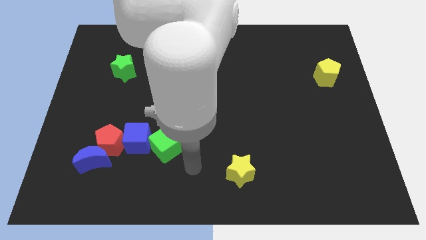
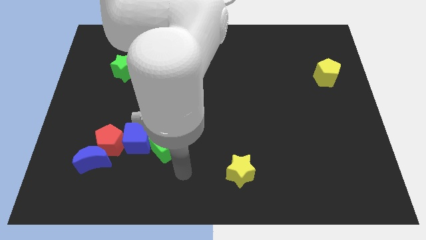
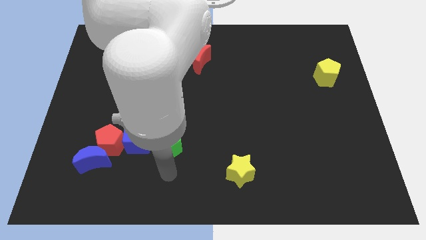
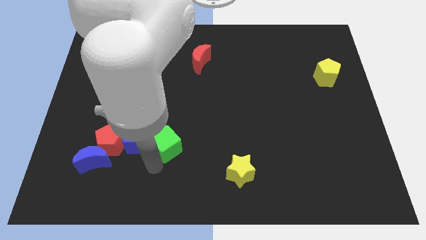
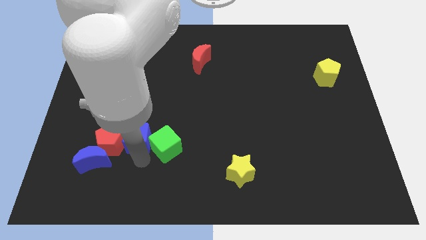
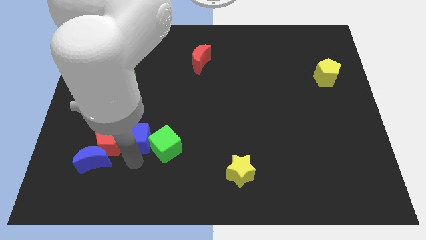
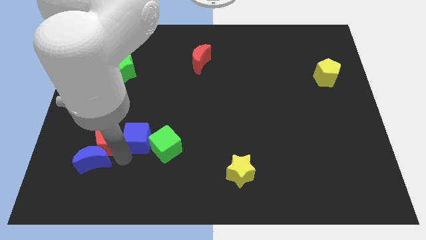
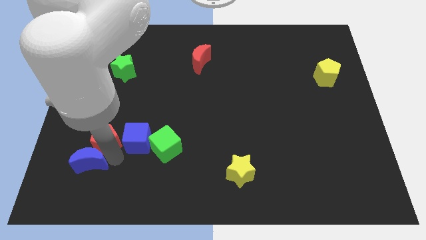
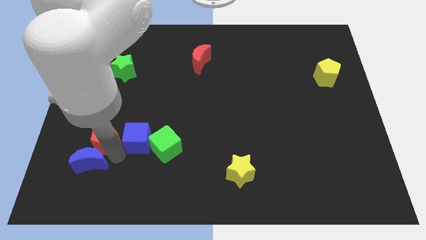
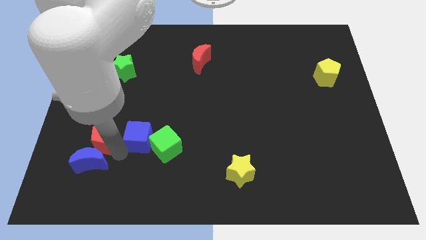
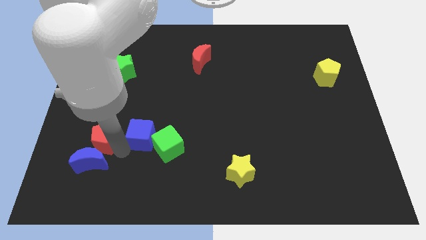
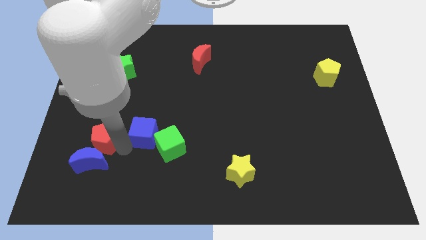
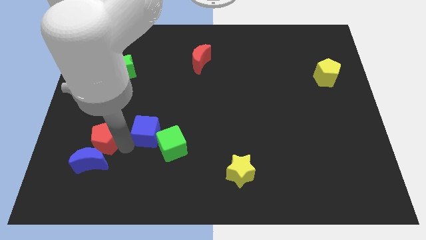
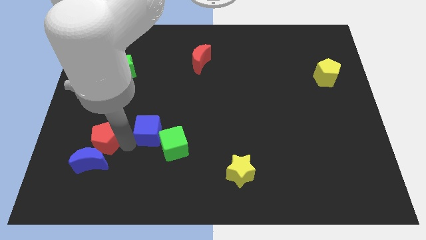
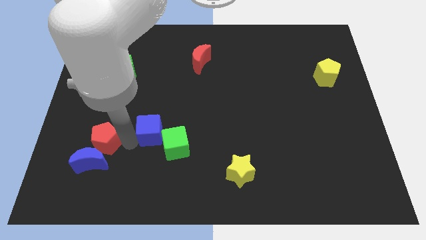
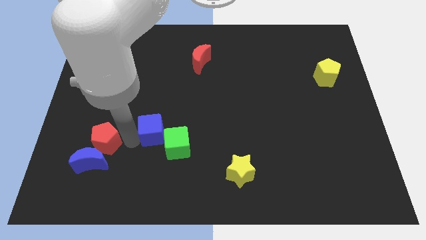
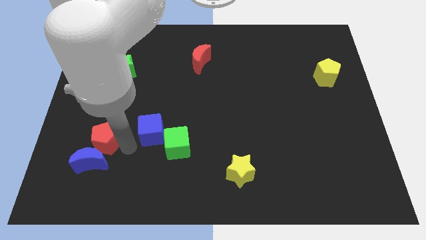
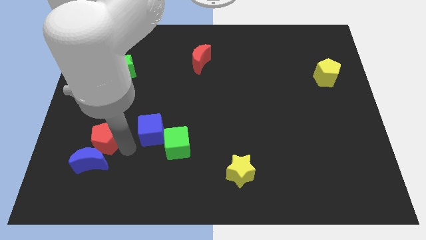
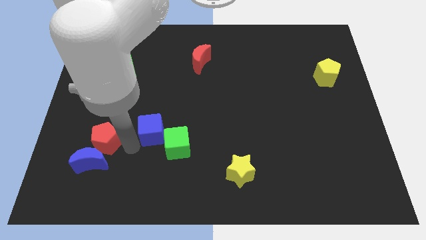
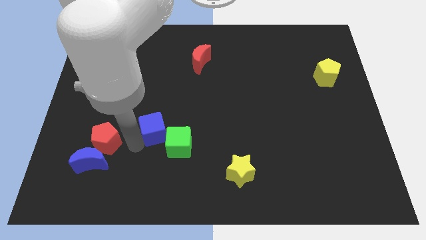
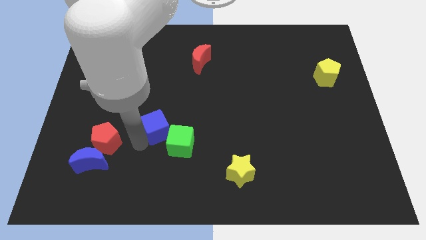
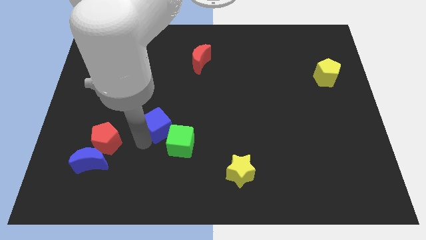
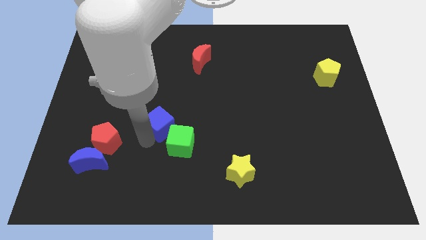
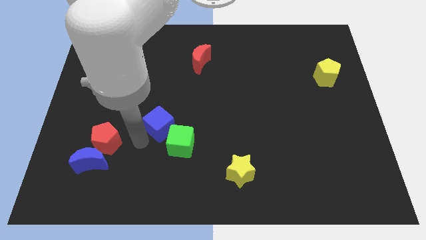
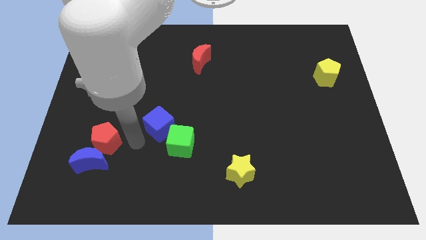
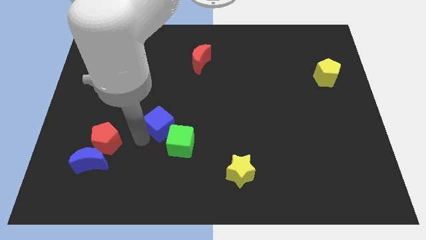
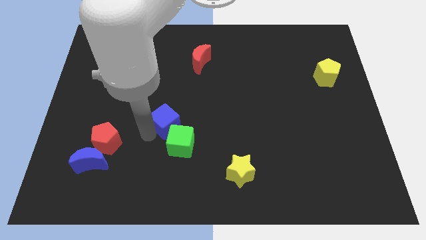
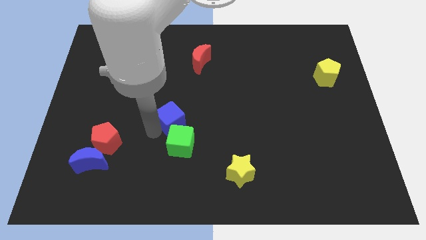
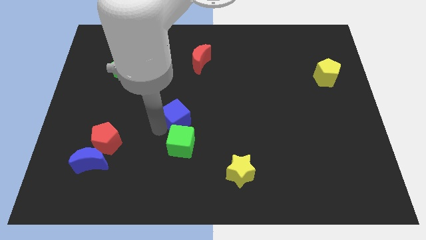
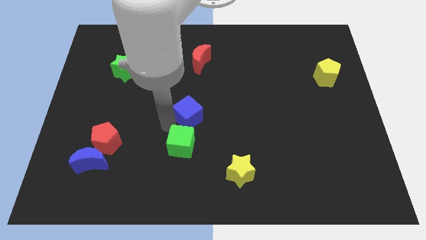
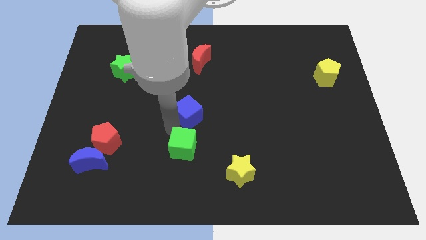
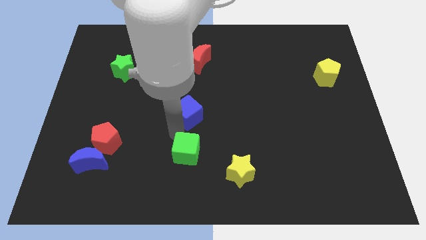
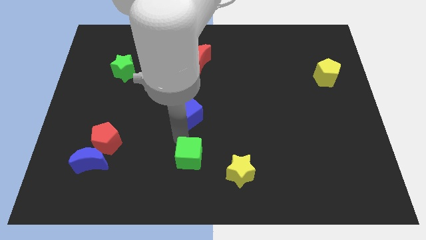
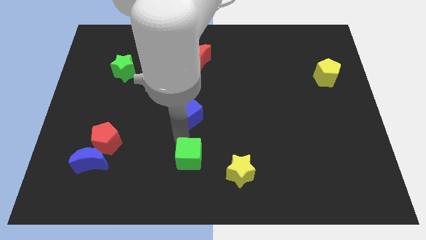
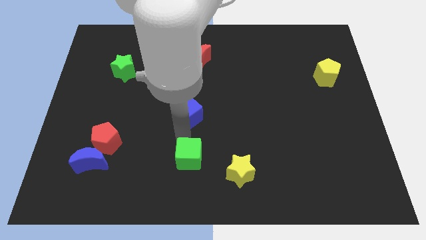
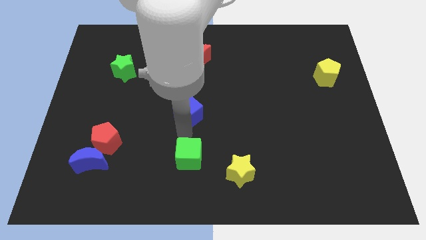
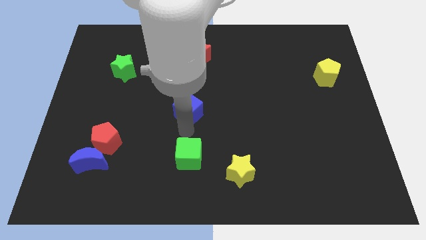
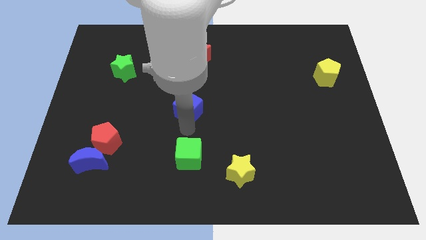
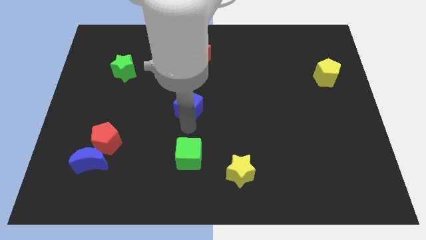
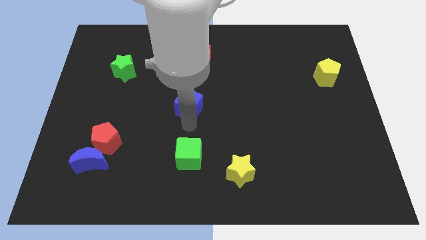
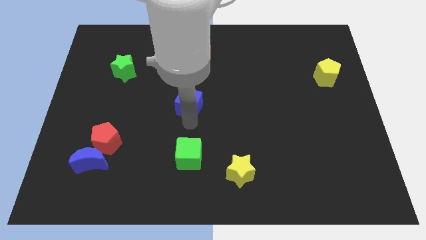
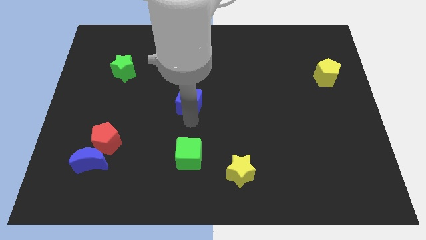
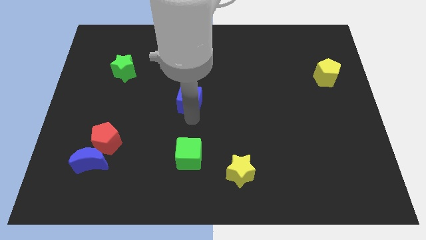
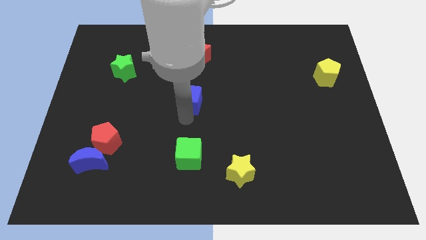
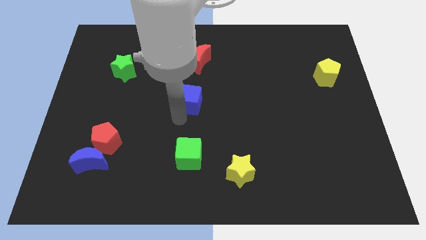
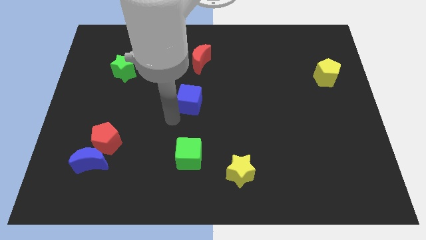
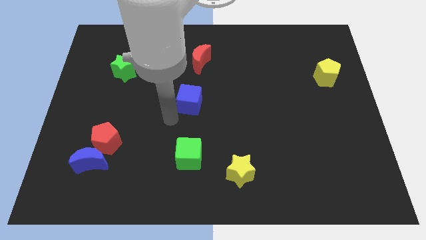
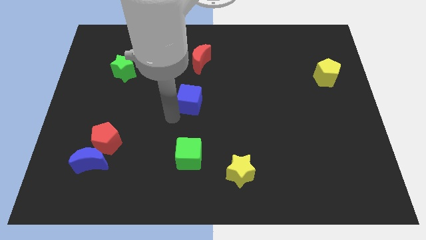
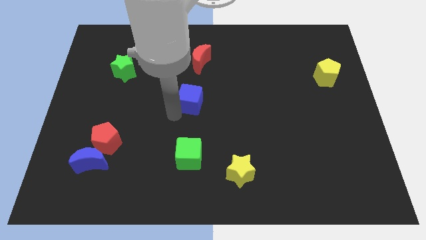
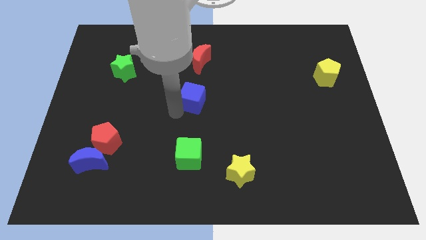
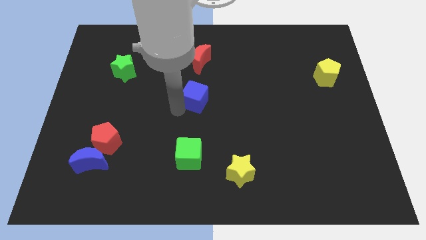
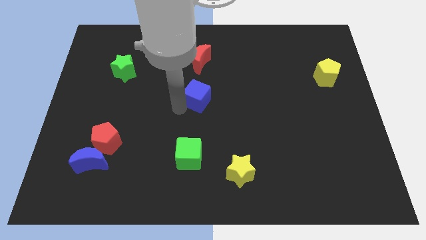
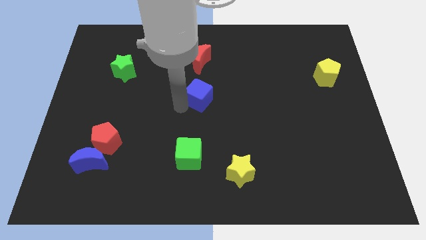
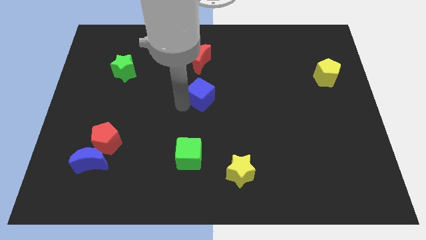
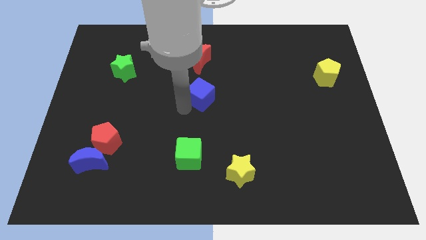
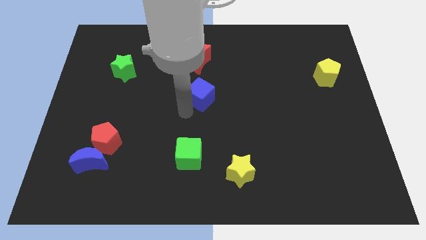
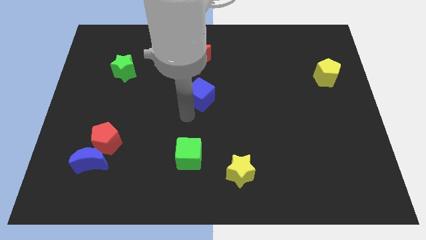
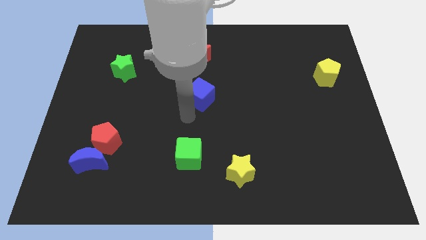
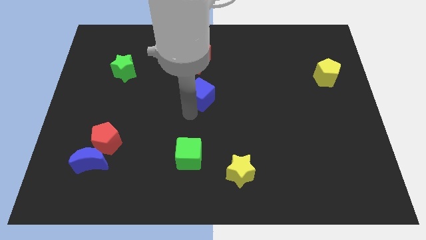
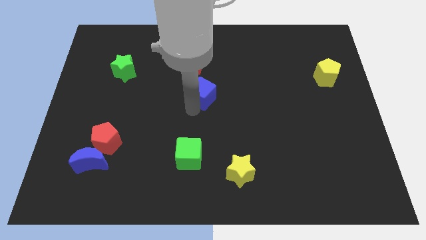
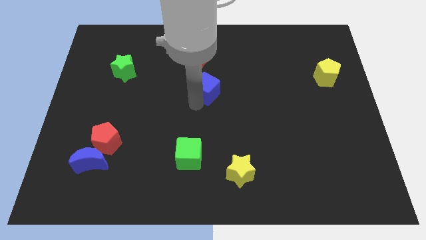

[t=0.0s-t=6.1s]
push the blue cube upwards and to the right diagonally

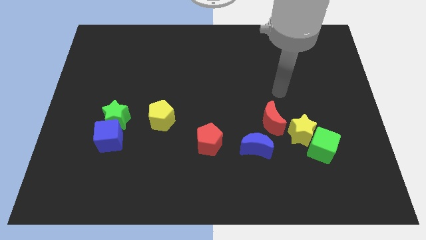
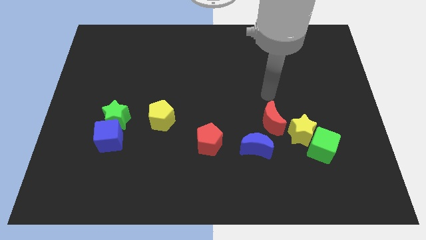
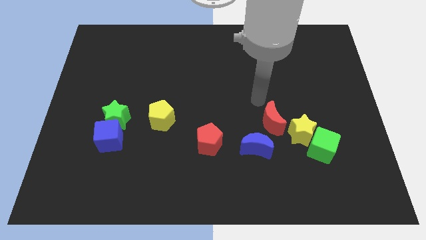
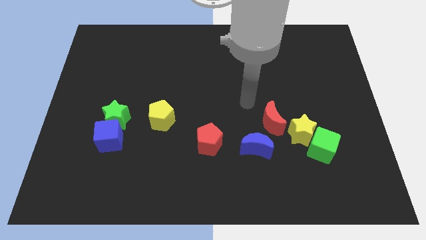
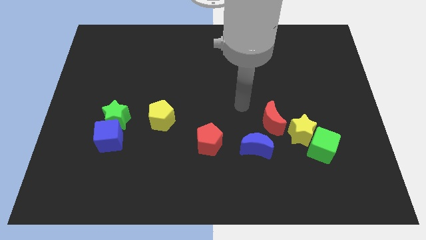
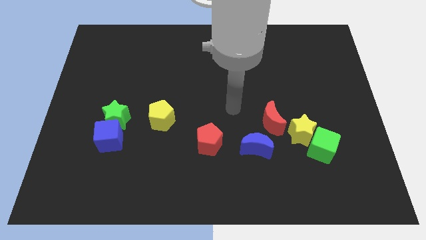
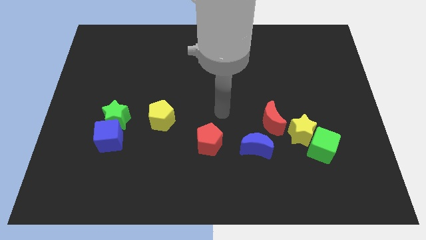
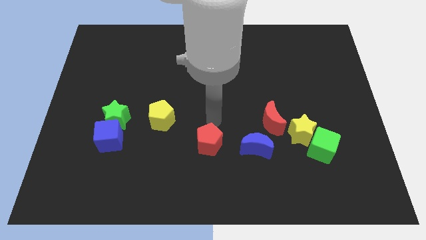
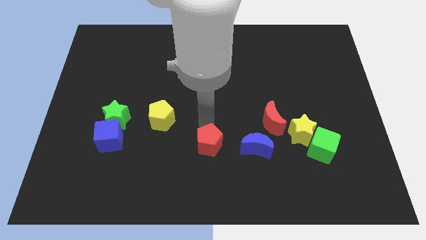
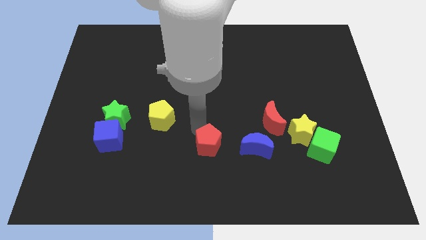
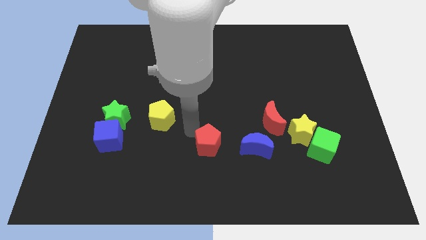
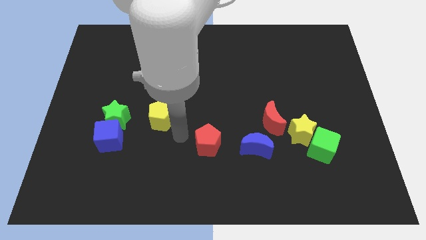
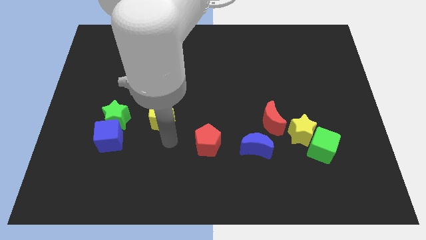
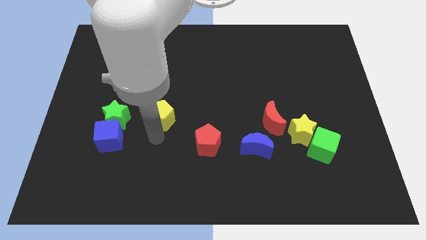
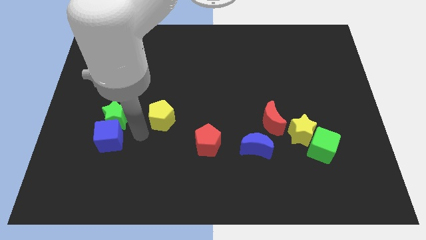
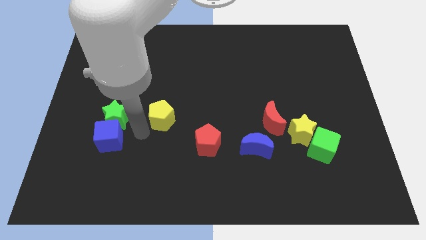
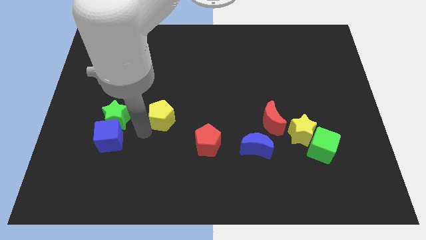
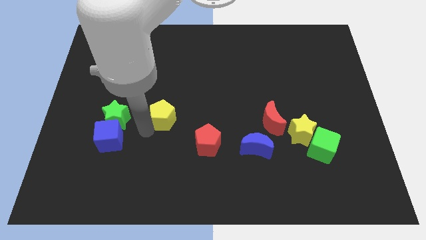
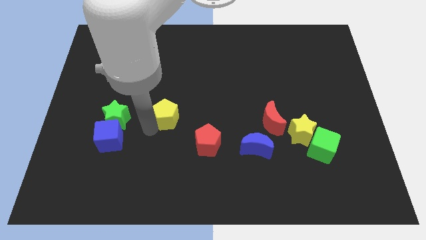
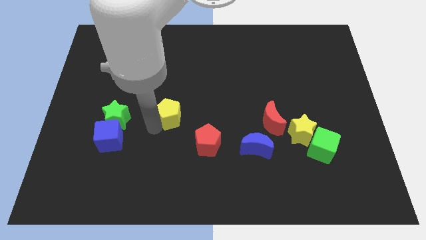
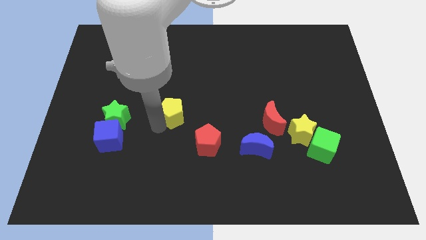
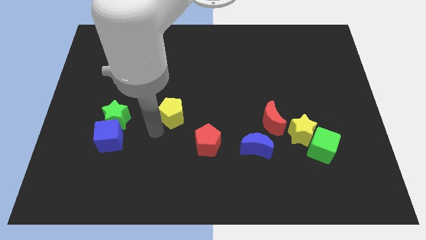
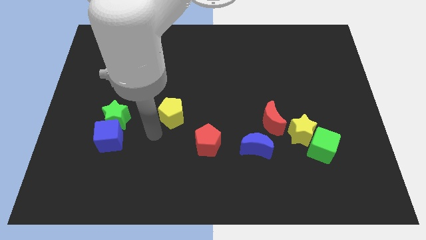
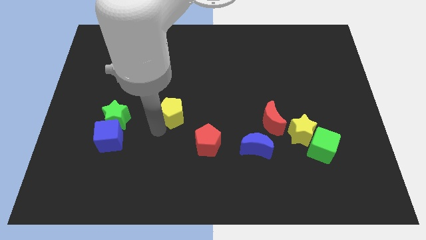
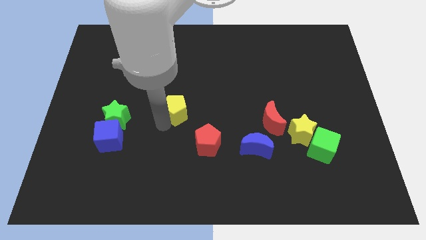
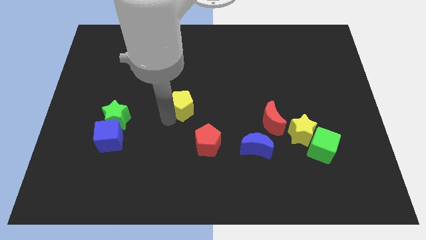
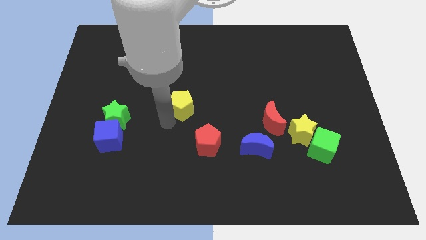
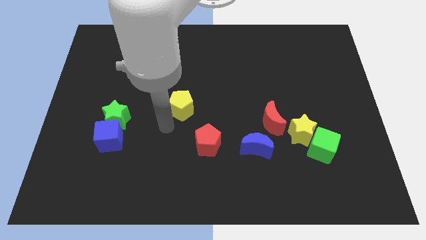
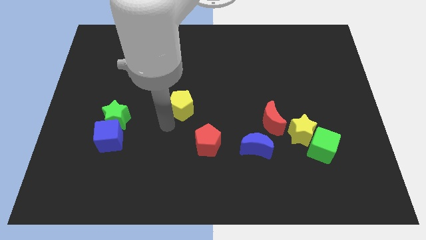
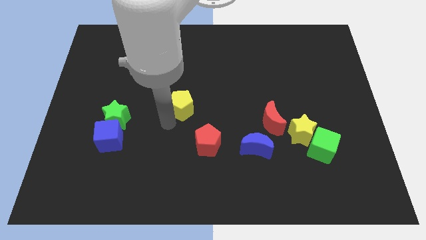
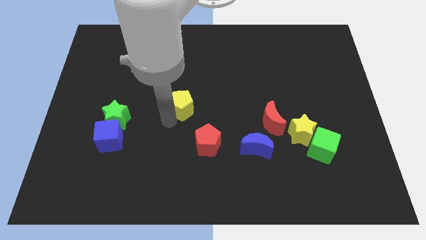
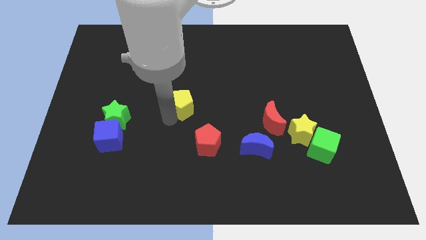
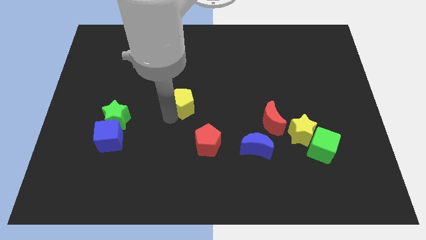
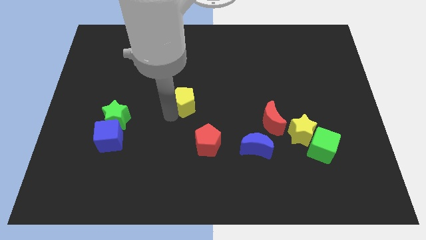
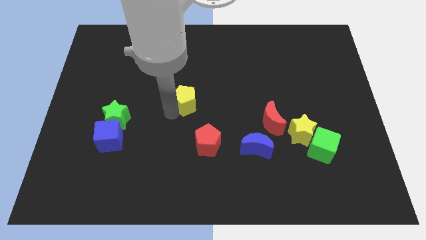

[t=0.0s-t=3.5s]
slightly move the yellow pentagon upwards and right diagonally
